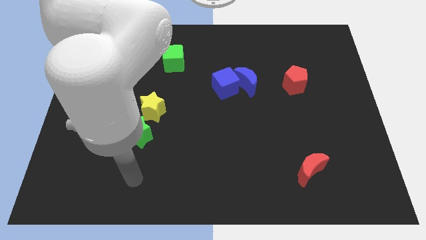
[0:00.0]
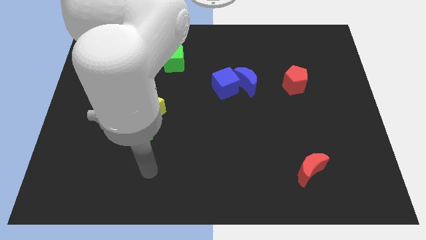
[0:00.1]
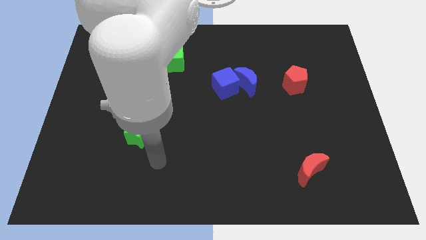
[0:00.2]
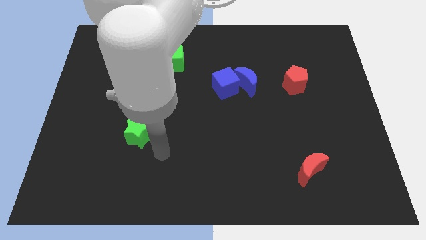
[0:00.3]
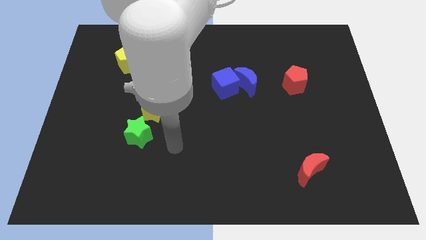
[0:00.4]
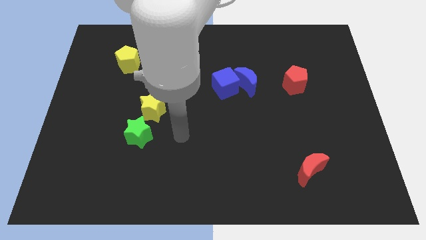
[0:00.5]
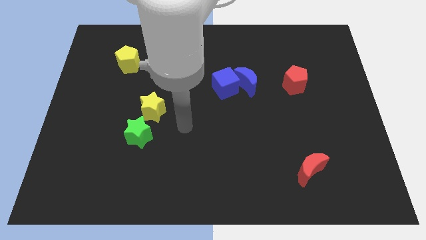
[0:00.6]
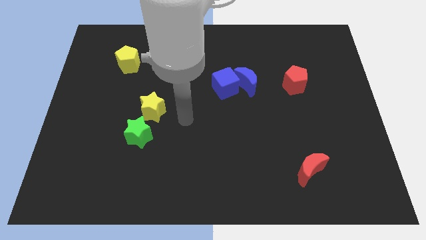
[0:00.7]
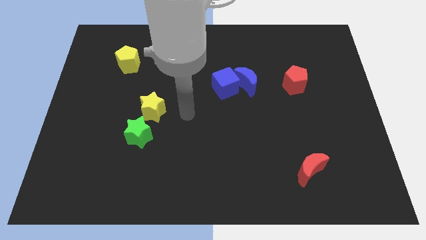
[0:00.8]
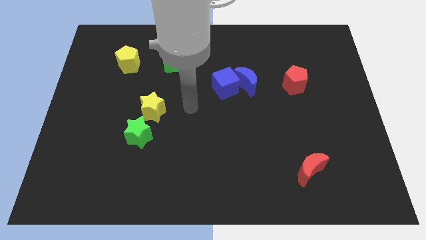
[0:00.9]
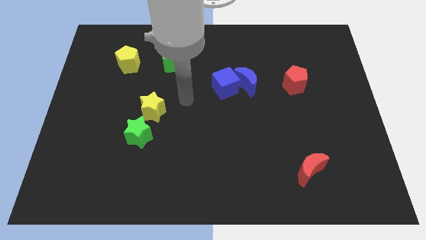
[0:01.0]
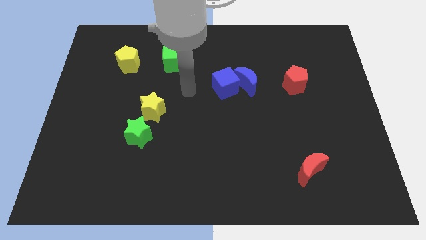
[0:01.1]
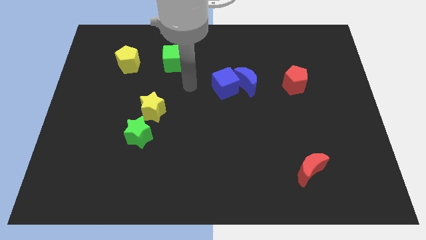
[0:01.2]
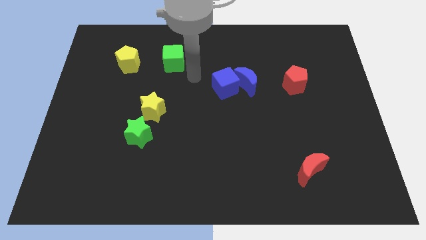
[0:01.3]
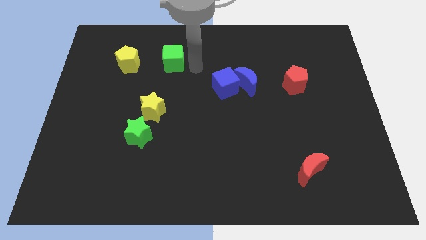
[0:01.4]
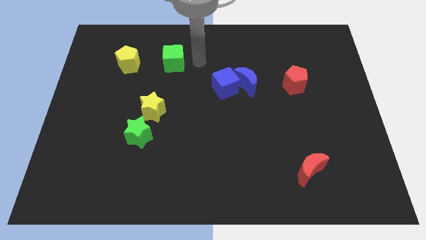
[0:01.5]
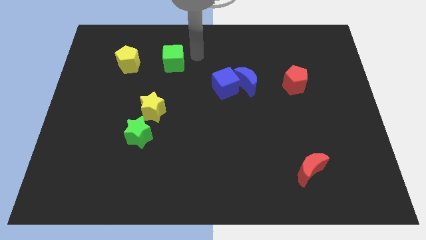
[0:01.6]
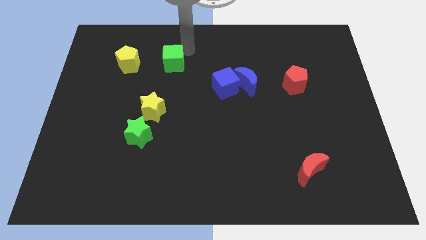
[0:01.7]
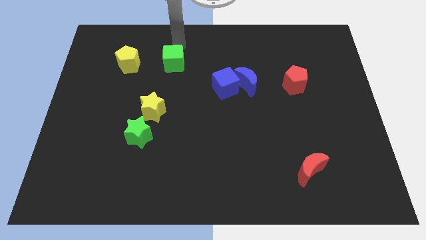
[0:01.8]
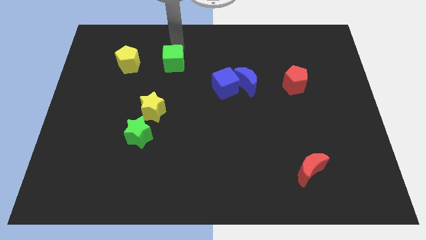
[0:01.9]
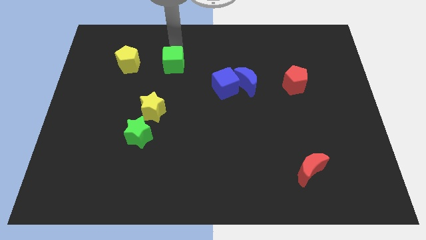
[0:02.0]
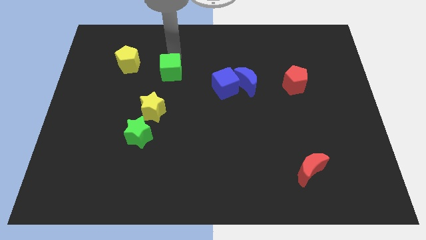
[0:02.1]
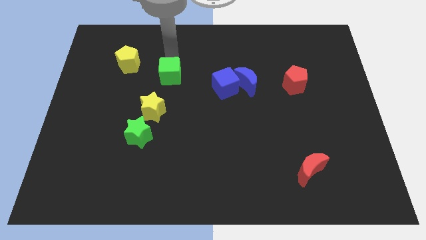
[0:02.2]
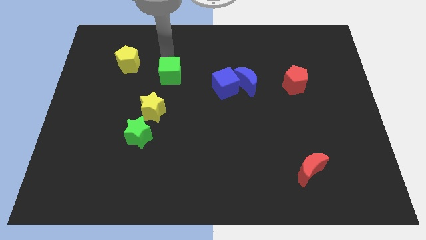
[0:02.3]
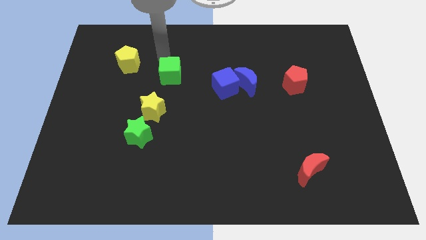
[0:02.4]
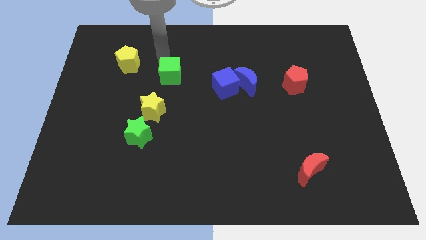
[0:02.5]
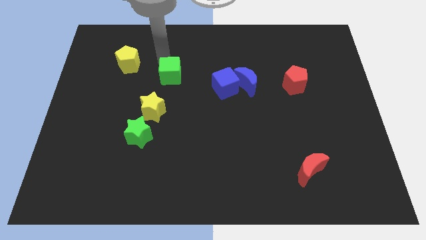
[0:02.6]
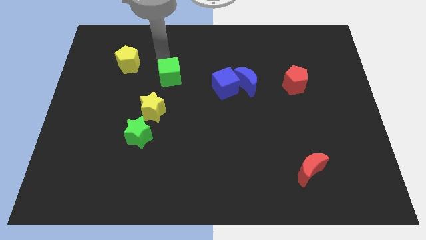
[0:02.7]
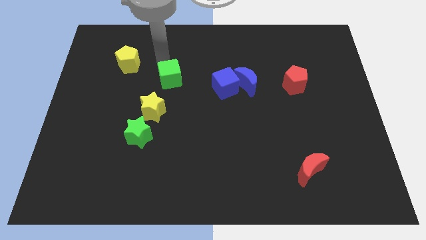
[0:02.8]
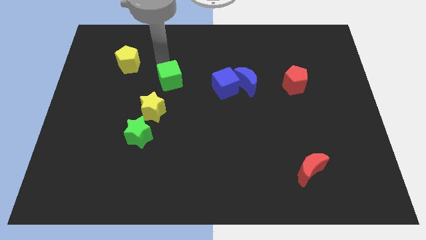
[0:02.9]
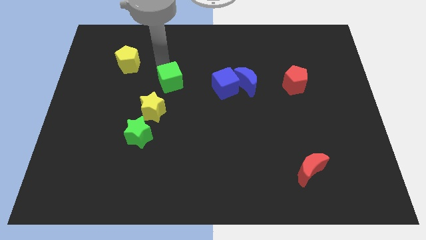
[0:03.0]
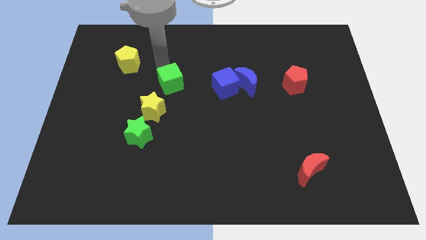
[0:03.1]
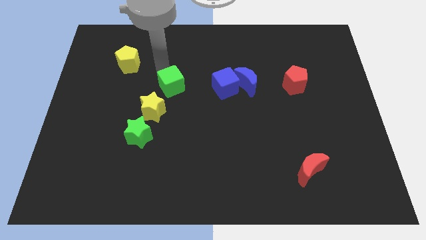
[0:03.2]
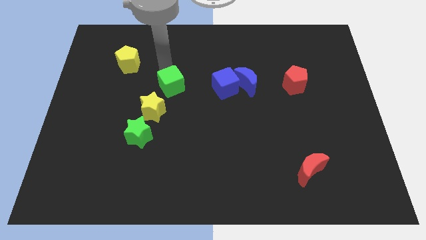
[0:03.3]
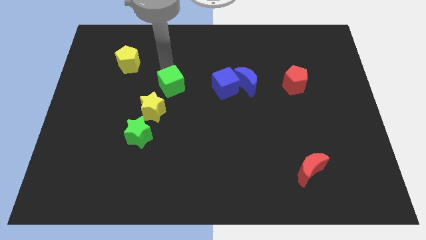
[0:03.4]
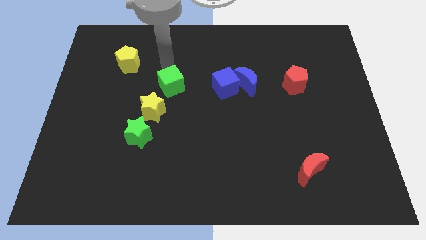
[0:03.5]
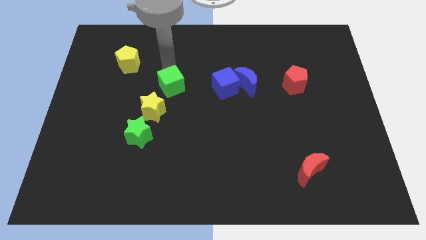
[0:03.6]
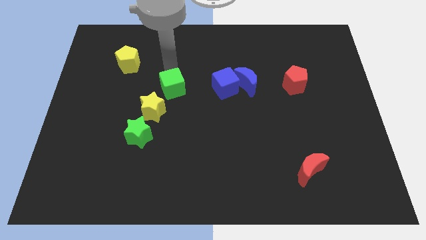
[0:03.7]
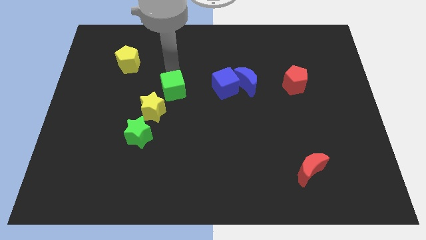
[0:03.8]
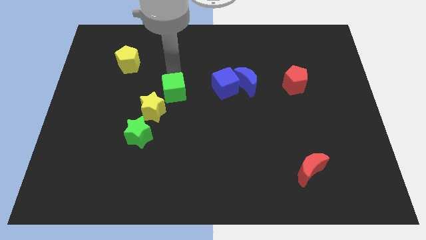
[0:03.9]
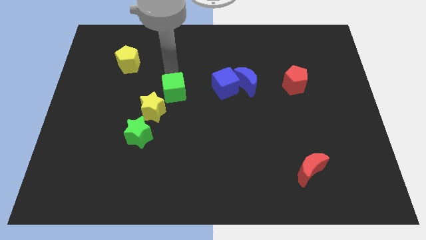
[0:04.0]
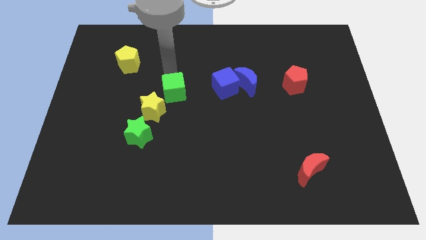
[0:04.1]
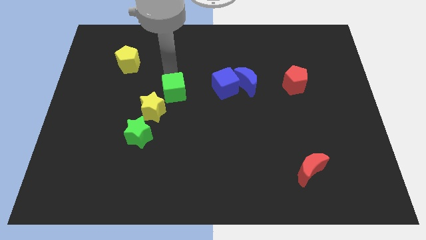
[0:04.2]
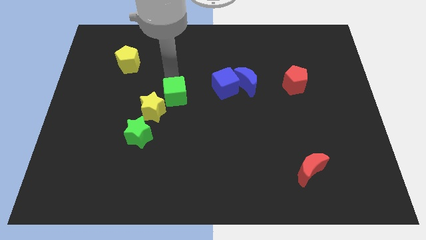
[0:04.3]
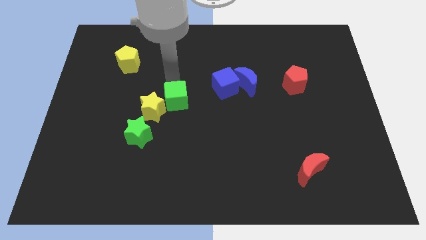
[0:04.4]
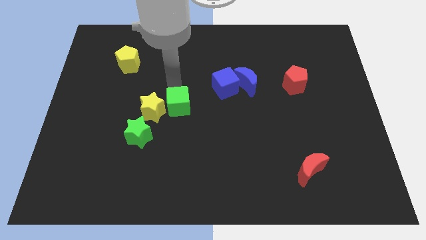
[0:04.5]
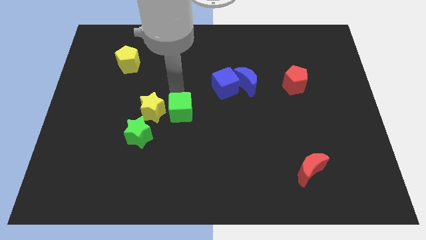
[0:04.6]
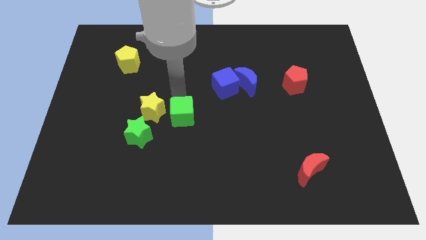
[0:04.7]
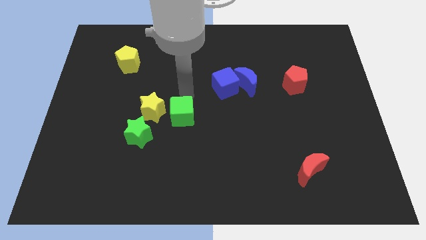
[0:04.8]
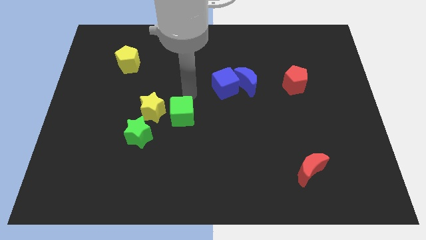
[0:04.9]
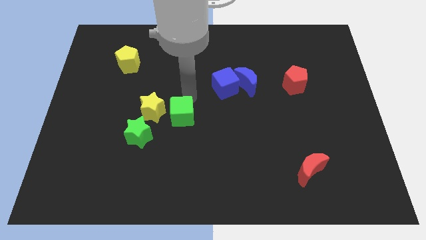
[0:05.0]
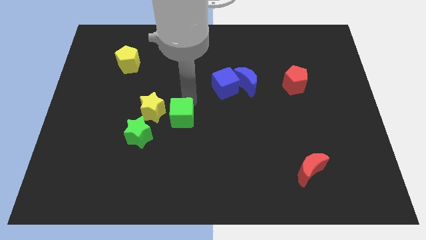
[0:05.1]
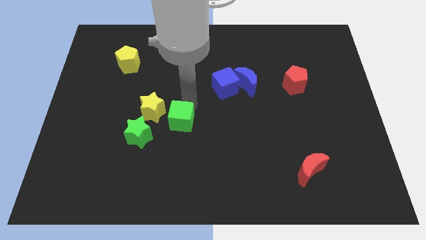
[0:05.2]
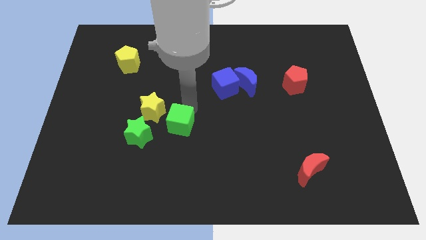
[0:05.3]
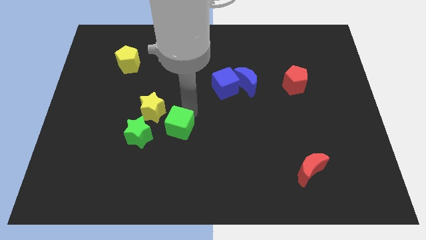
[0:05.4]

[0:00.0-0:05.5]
push the green cube downwards

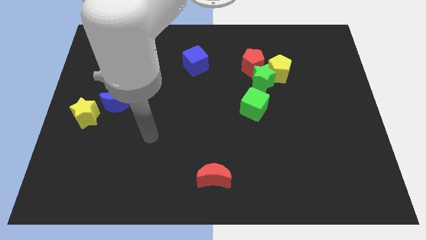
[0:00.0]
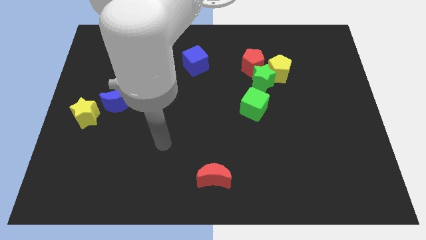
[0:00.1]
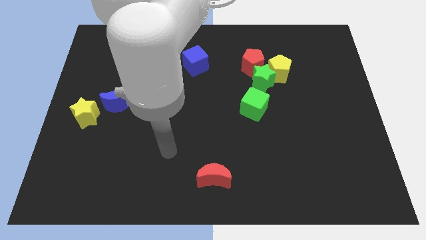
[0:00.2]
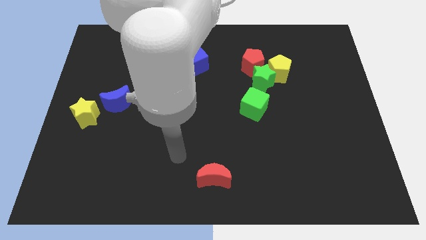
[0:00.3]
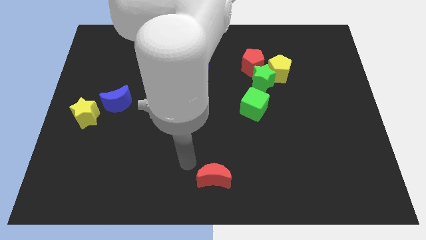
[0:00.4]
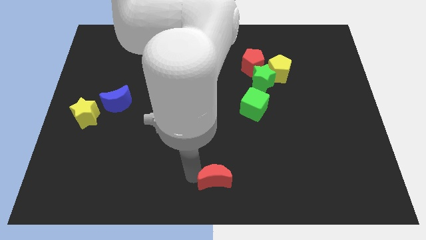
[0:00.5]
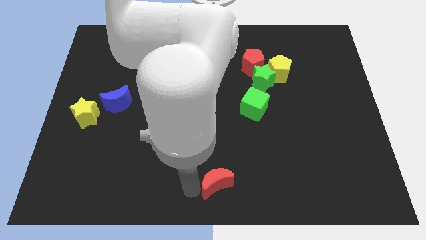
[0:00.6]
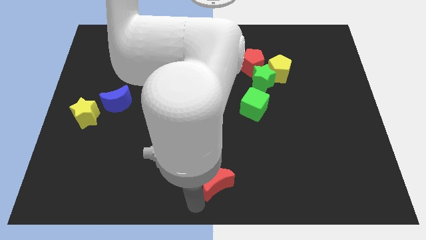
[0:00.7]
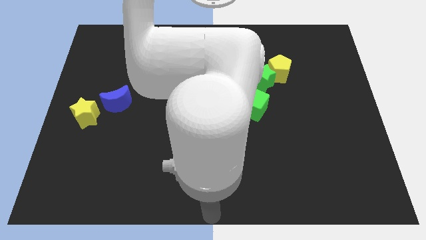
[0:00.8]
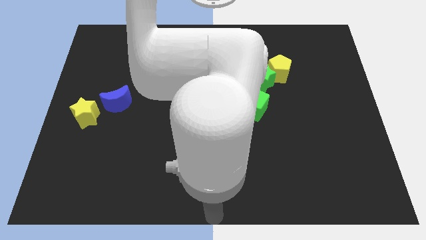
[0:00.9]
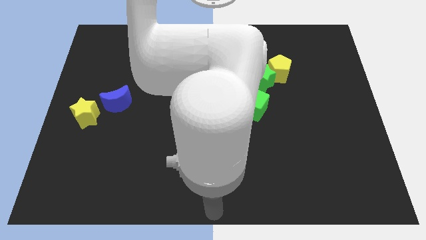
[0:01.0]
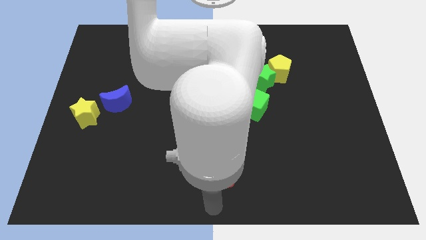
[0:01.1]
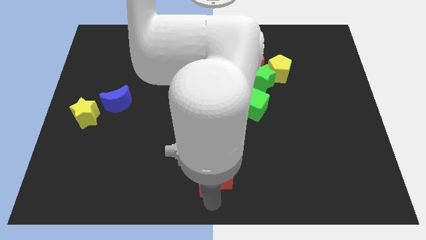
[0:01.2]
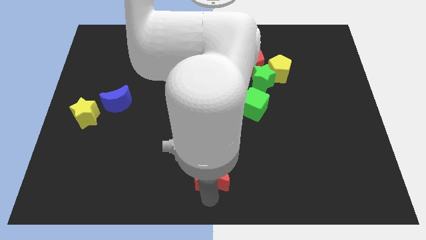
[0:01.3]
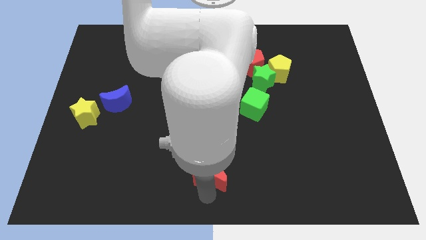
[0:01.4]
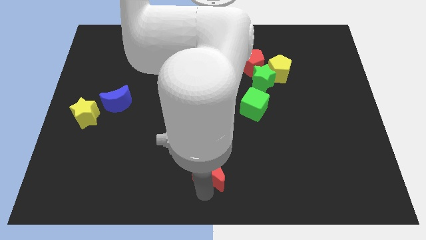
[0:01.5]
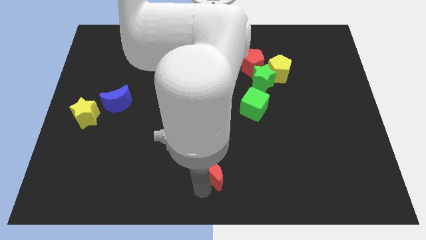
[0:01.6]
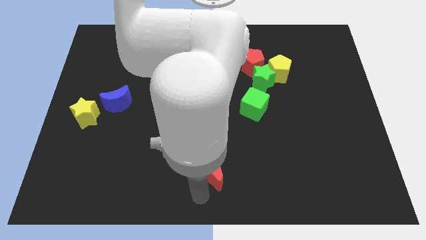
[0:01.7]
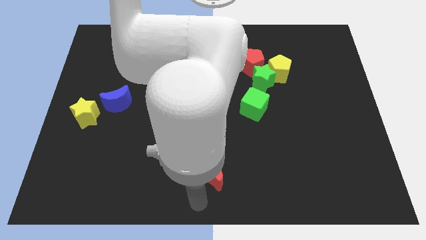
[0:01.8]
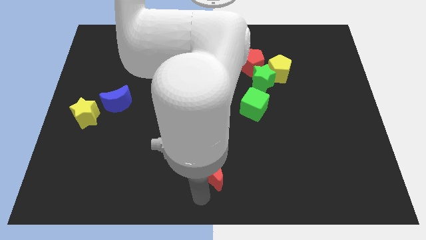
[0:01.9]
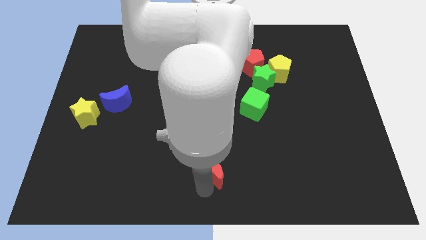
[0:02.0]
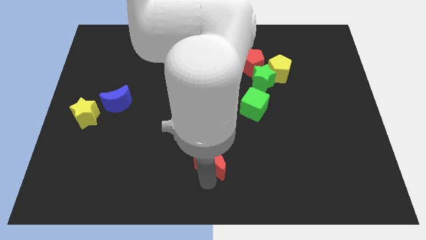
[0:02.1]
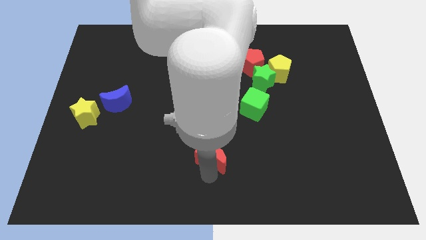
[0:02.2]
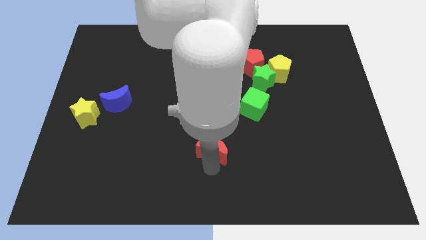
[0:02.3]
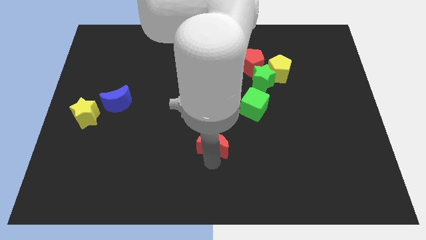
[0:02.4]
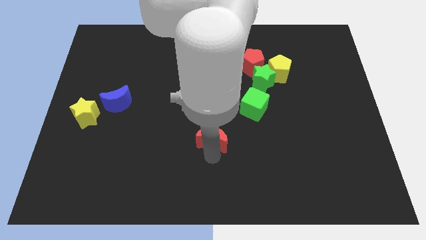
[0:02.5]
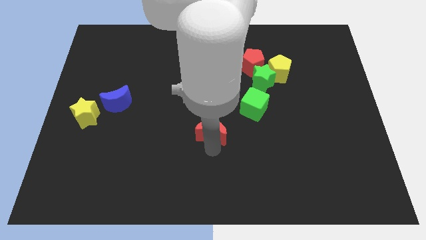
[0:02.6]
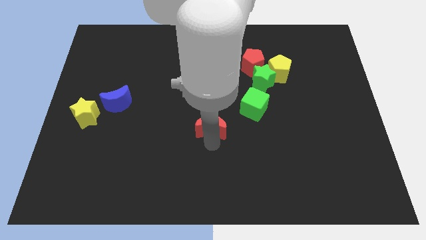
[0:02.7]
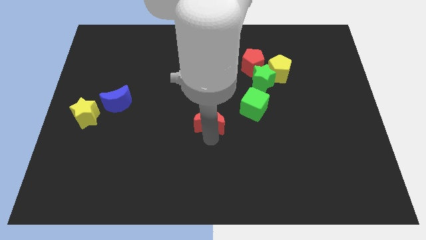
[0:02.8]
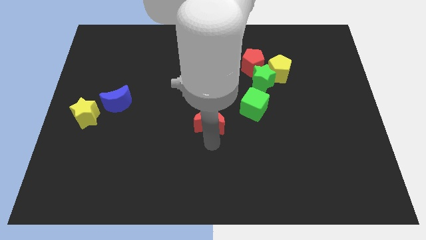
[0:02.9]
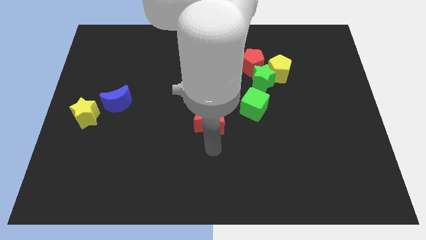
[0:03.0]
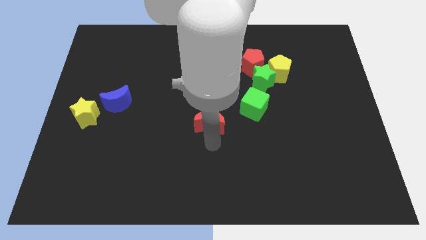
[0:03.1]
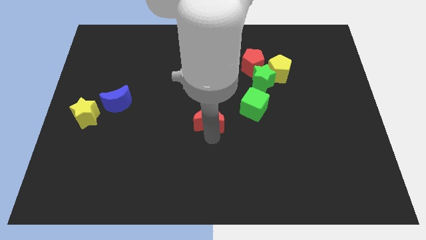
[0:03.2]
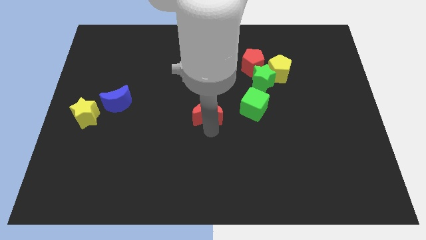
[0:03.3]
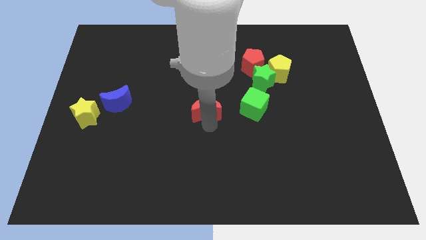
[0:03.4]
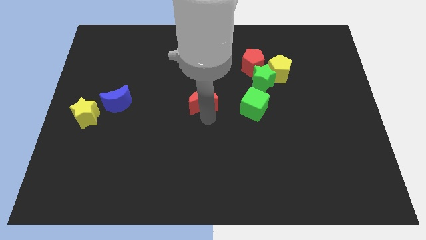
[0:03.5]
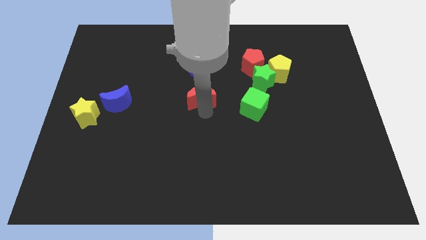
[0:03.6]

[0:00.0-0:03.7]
push the red moon up
